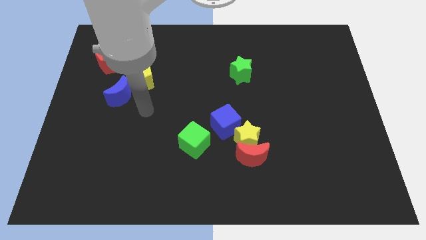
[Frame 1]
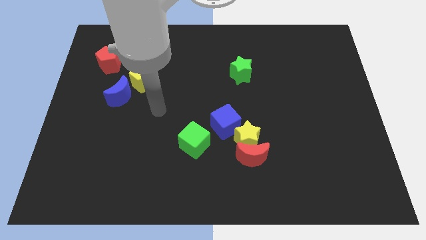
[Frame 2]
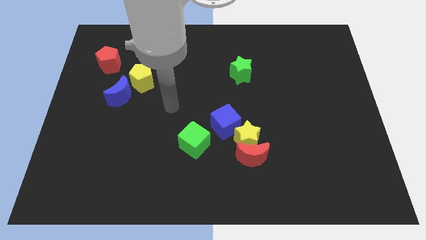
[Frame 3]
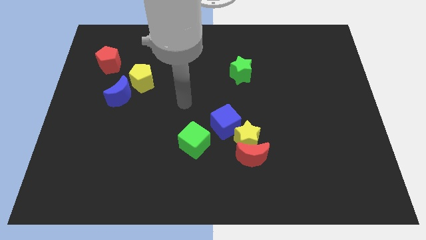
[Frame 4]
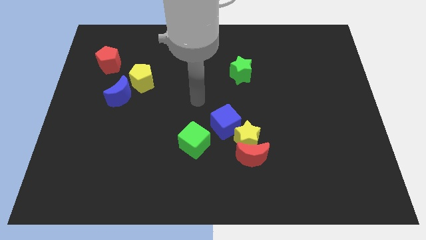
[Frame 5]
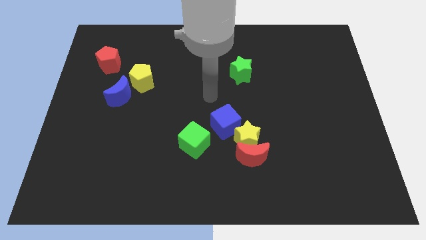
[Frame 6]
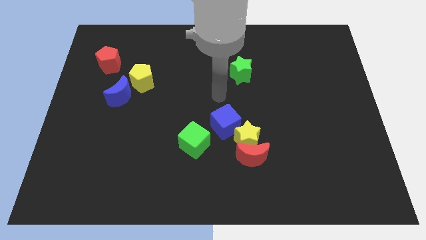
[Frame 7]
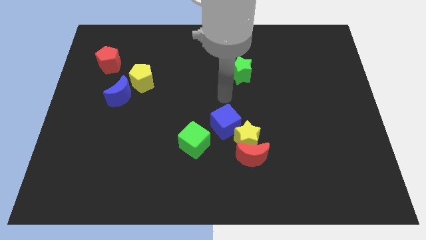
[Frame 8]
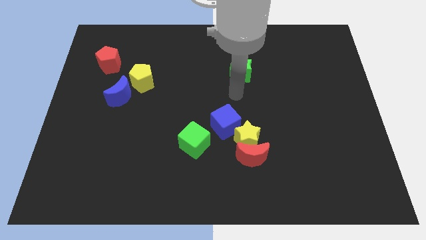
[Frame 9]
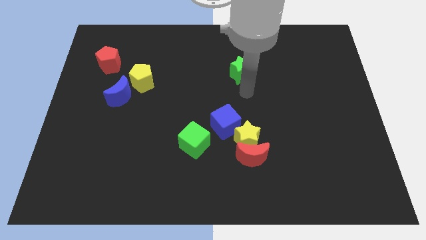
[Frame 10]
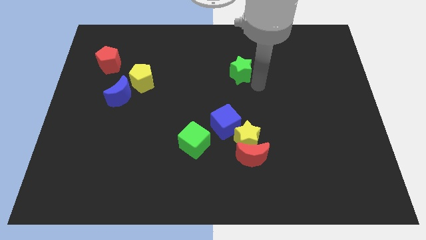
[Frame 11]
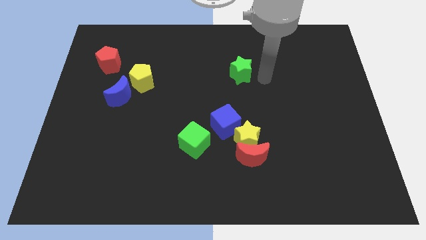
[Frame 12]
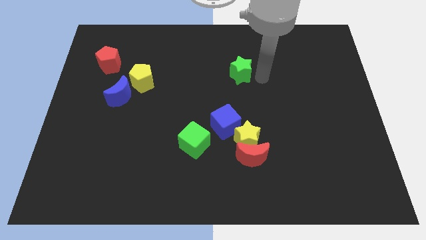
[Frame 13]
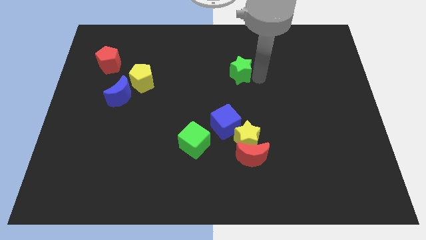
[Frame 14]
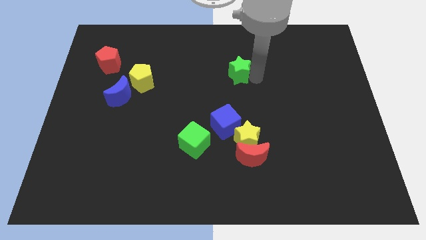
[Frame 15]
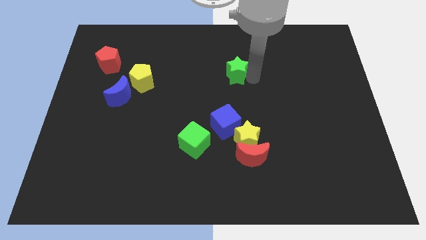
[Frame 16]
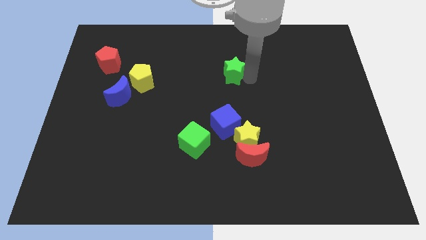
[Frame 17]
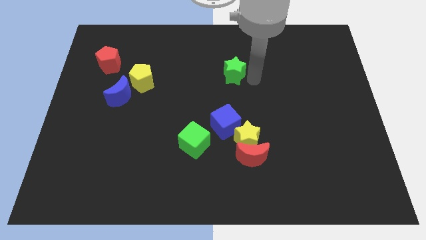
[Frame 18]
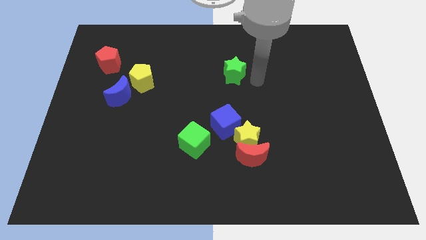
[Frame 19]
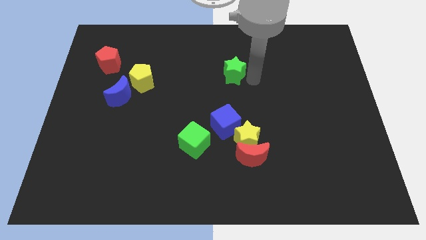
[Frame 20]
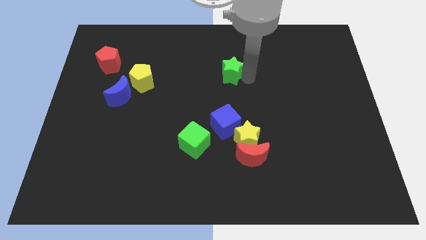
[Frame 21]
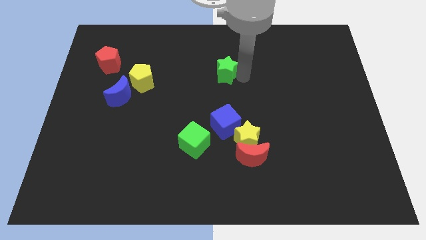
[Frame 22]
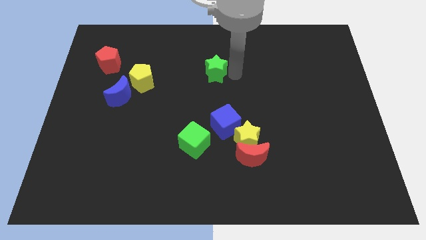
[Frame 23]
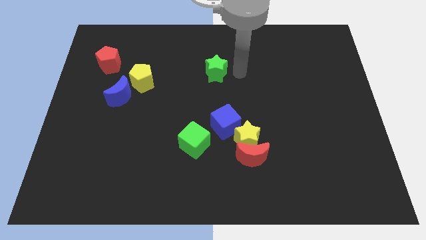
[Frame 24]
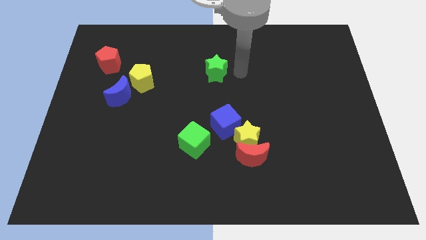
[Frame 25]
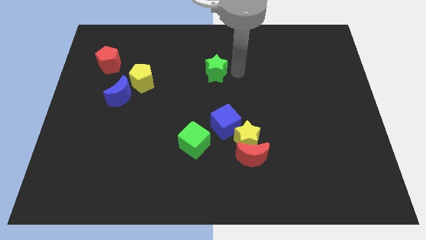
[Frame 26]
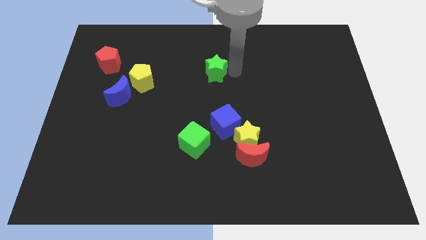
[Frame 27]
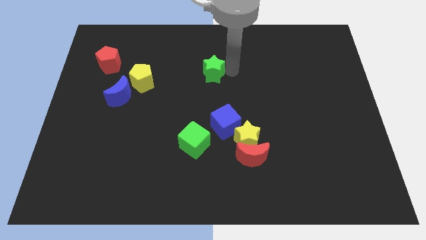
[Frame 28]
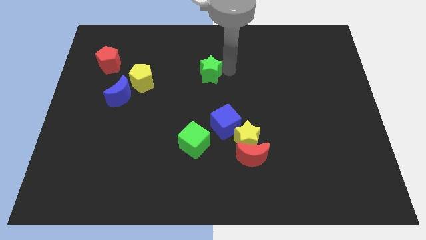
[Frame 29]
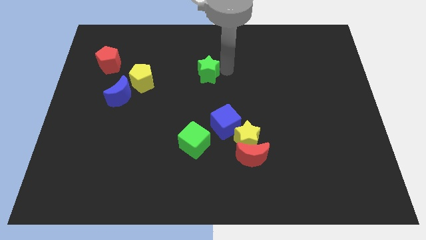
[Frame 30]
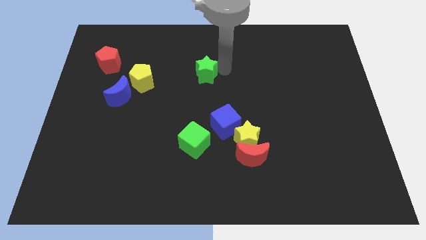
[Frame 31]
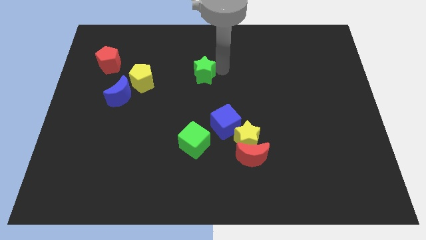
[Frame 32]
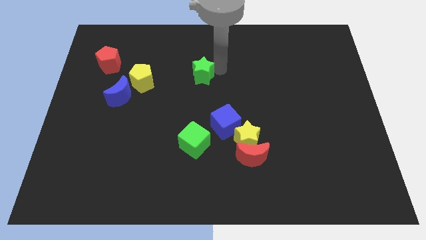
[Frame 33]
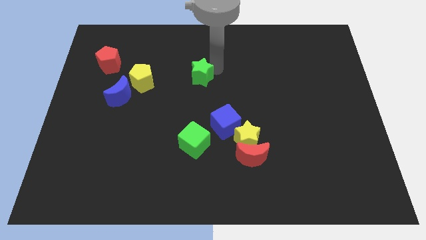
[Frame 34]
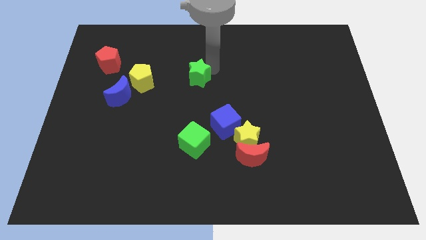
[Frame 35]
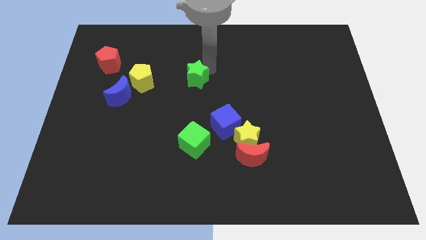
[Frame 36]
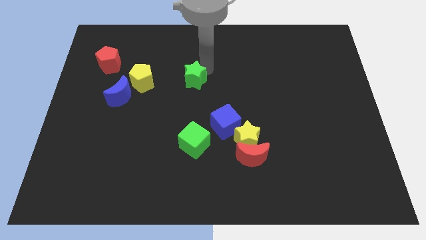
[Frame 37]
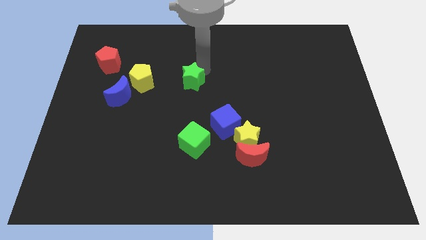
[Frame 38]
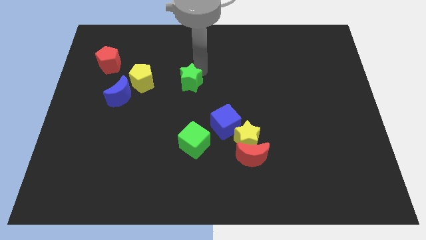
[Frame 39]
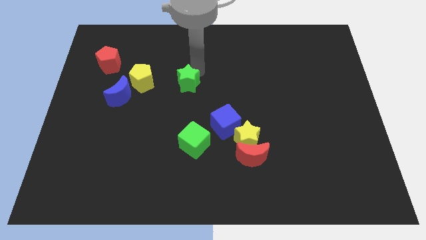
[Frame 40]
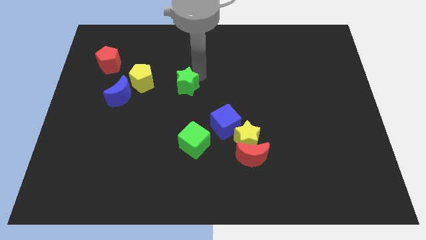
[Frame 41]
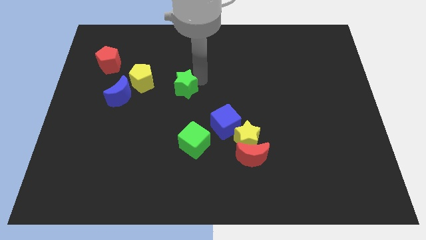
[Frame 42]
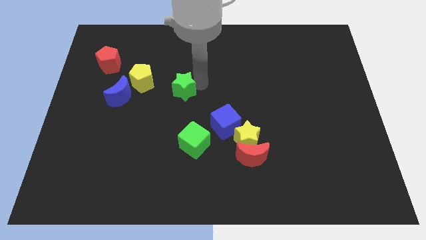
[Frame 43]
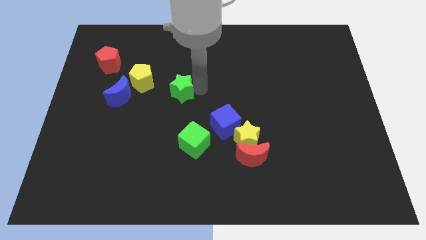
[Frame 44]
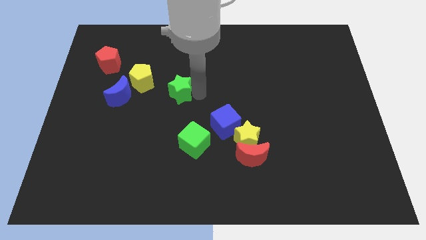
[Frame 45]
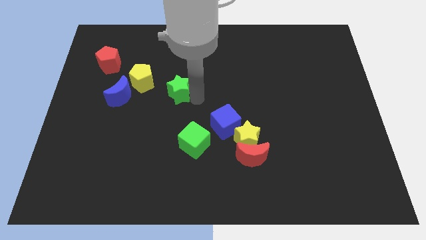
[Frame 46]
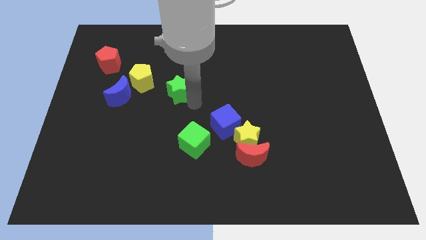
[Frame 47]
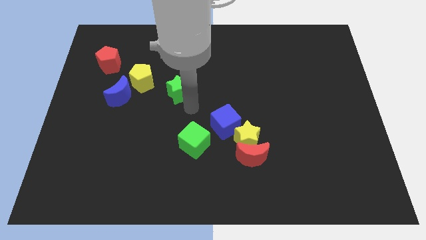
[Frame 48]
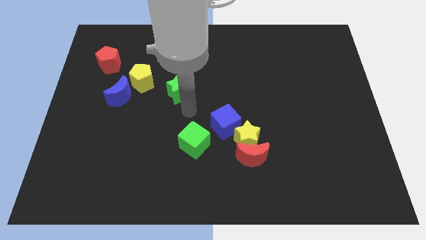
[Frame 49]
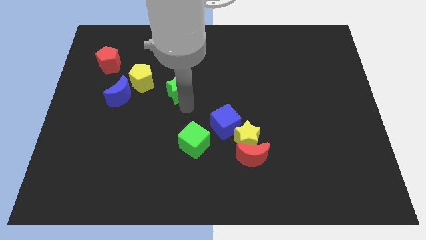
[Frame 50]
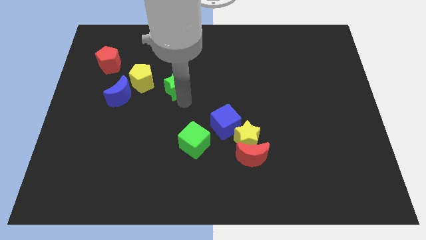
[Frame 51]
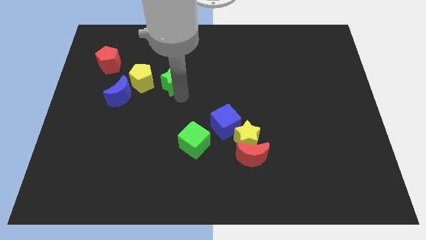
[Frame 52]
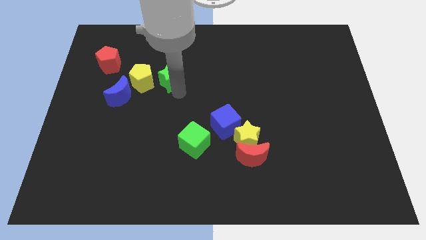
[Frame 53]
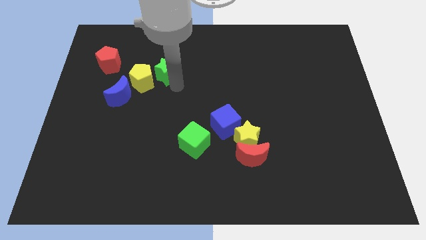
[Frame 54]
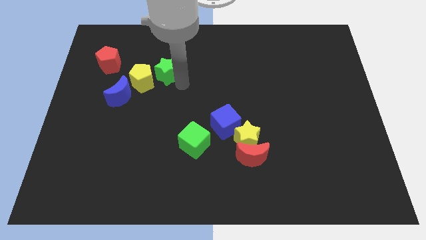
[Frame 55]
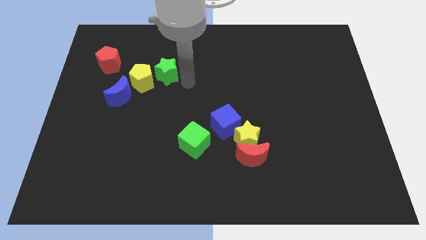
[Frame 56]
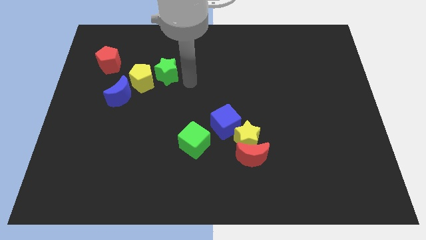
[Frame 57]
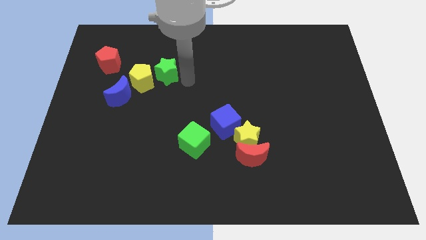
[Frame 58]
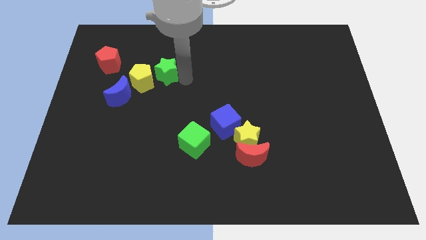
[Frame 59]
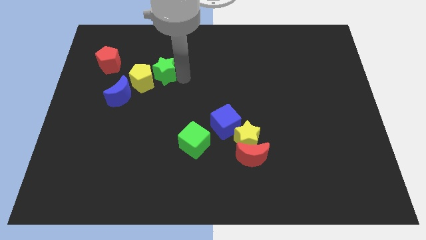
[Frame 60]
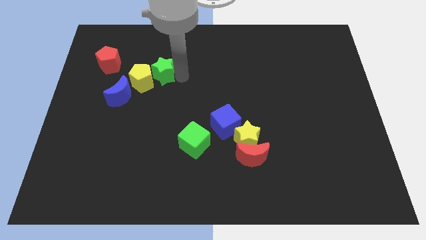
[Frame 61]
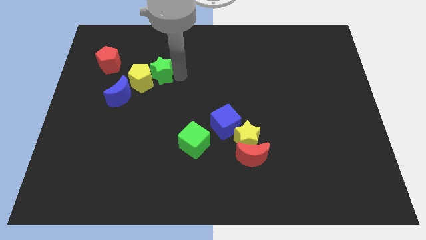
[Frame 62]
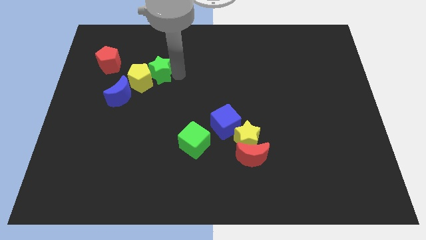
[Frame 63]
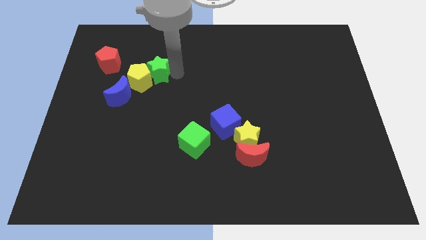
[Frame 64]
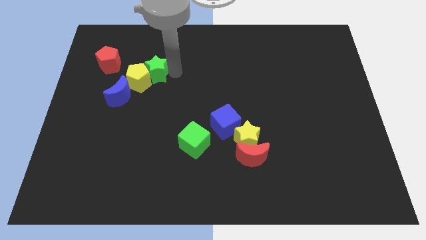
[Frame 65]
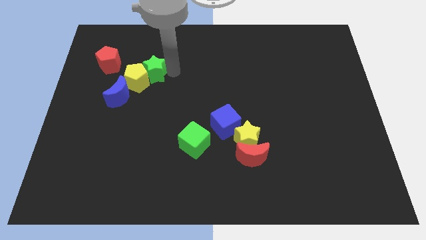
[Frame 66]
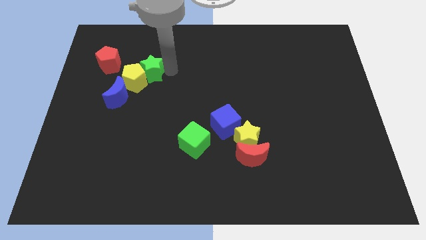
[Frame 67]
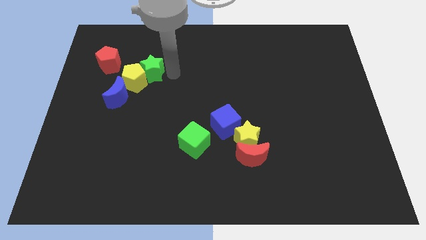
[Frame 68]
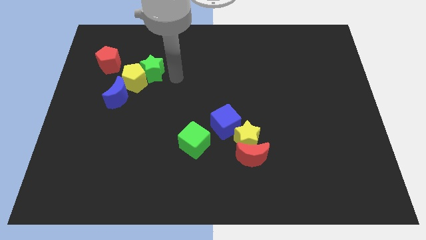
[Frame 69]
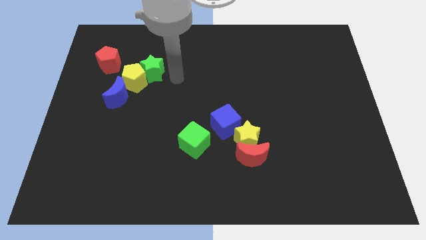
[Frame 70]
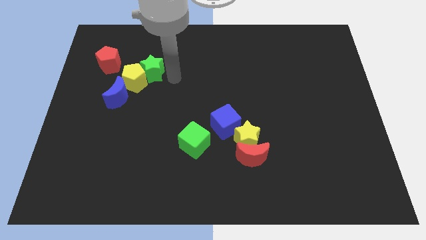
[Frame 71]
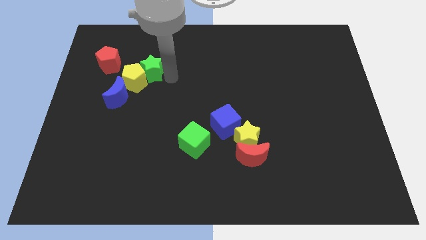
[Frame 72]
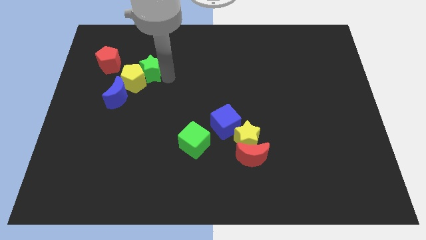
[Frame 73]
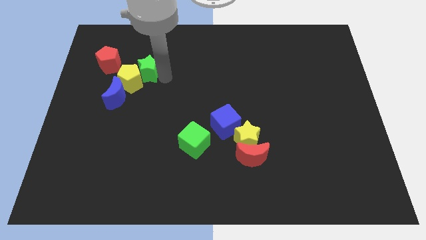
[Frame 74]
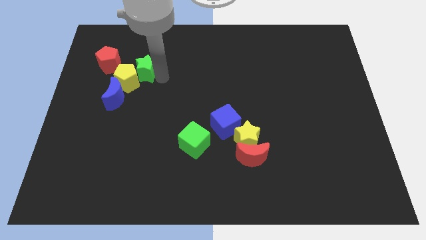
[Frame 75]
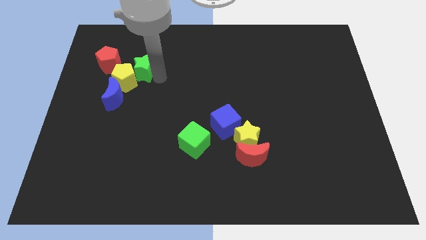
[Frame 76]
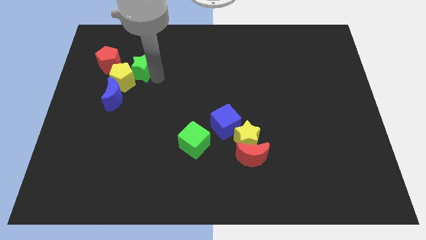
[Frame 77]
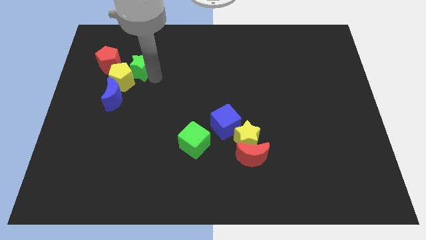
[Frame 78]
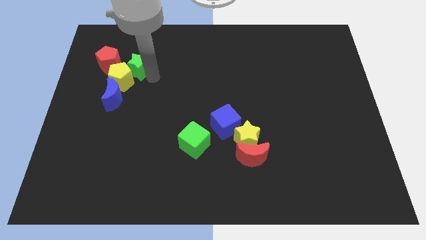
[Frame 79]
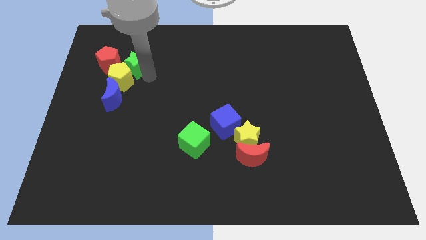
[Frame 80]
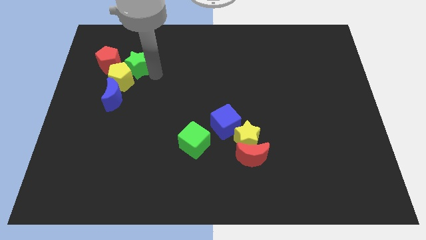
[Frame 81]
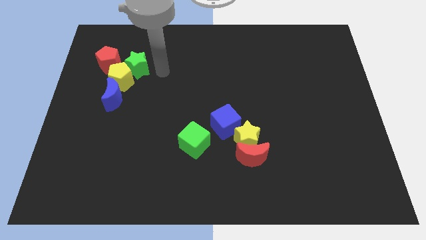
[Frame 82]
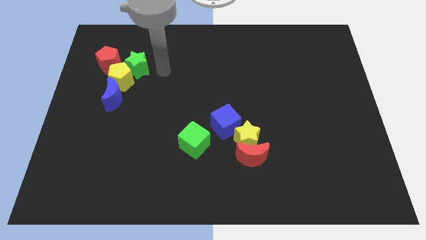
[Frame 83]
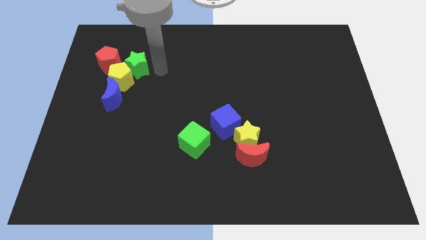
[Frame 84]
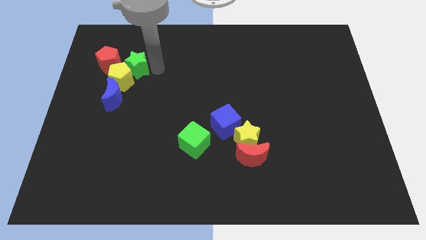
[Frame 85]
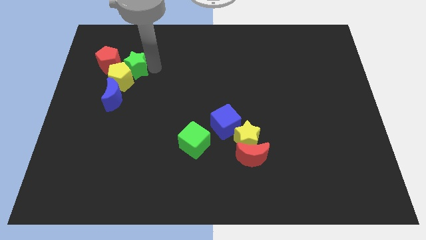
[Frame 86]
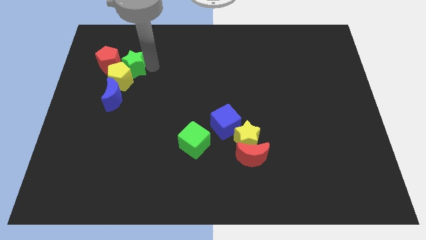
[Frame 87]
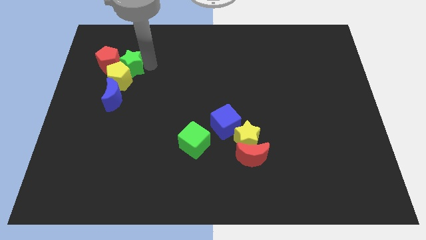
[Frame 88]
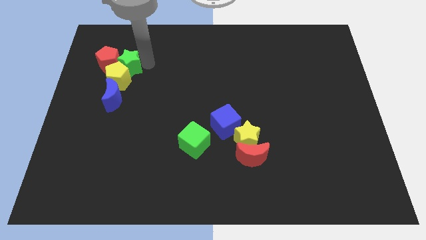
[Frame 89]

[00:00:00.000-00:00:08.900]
slide the green star close to the red pentagon
